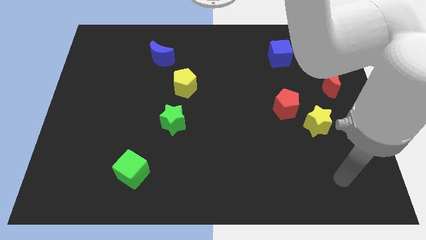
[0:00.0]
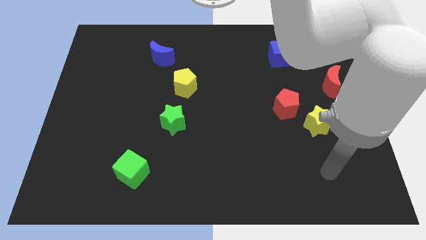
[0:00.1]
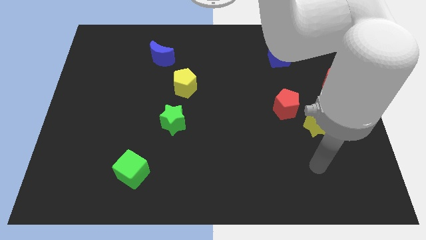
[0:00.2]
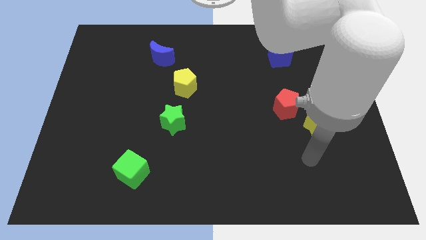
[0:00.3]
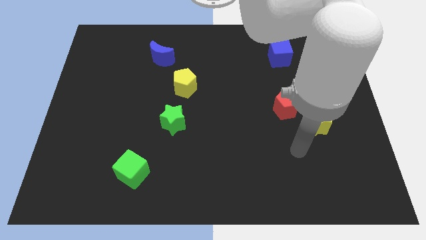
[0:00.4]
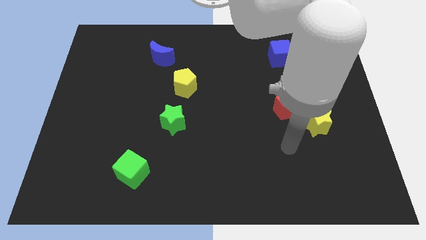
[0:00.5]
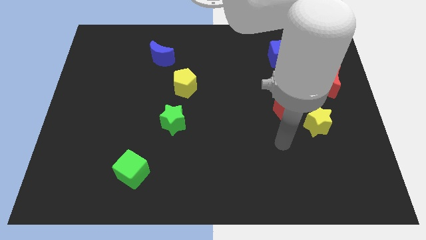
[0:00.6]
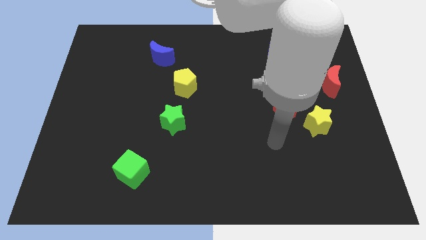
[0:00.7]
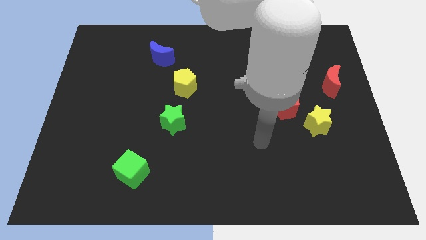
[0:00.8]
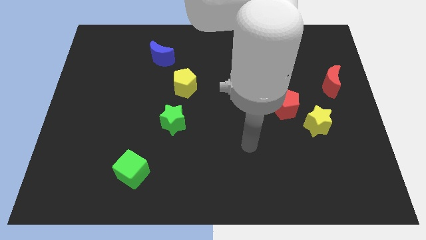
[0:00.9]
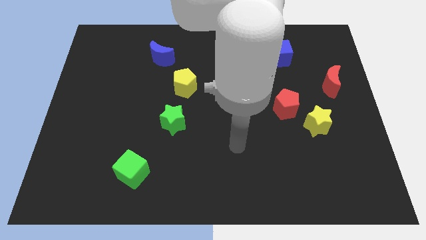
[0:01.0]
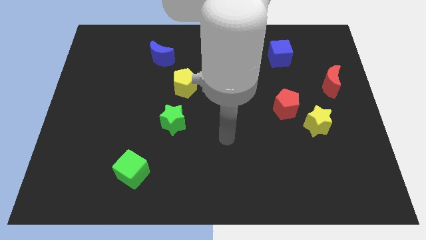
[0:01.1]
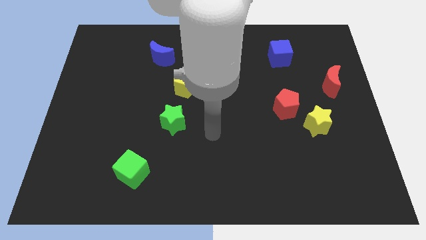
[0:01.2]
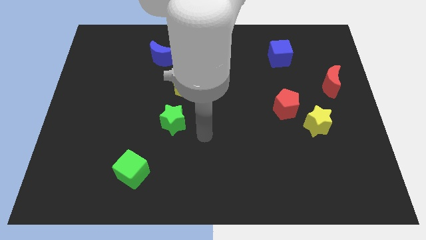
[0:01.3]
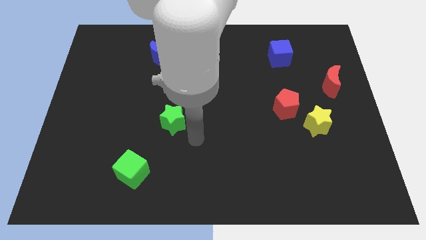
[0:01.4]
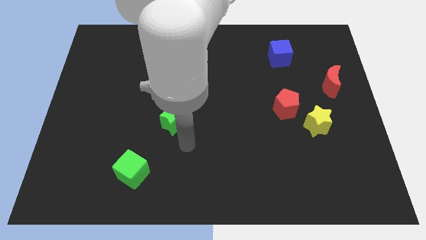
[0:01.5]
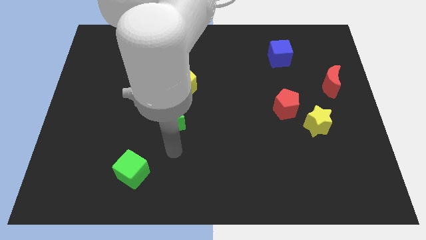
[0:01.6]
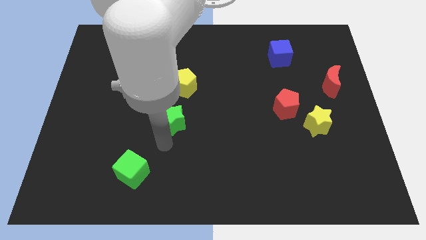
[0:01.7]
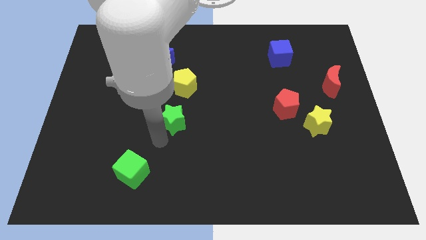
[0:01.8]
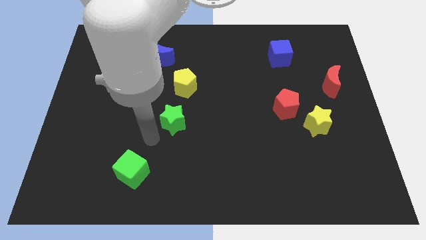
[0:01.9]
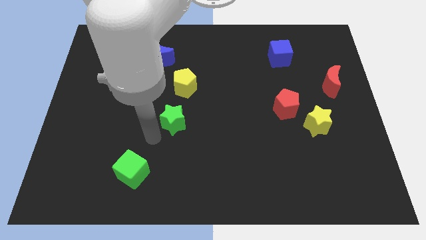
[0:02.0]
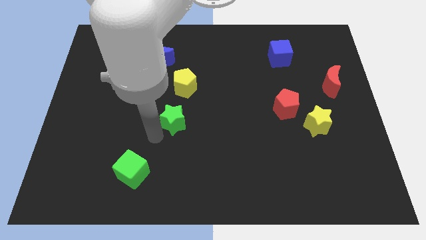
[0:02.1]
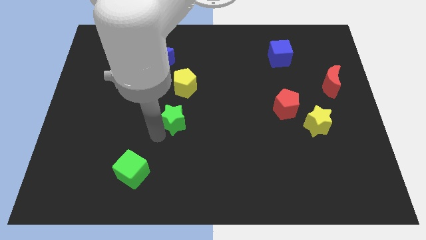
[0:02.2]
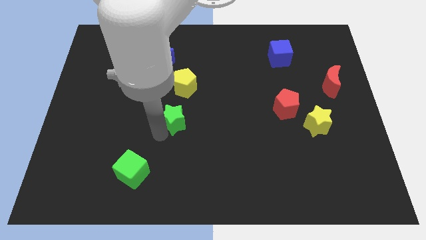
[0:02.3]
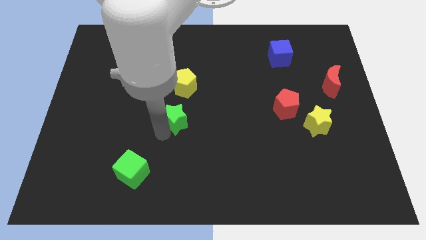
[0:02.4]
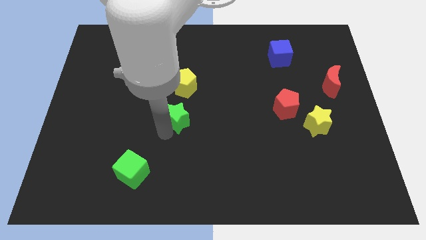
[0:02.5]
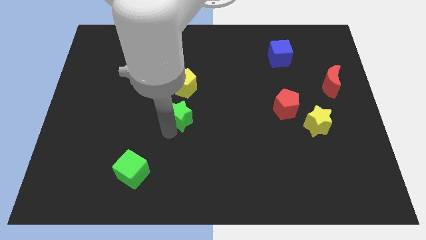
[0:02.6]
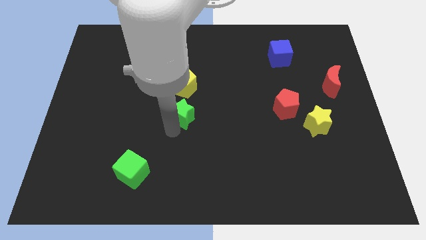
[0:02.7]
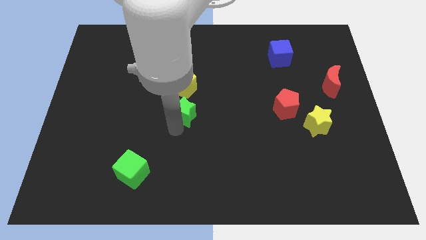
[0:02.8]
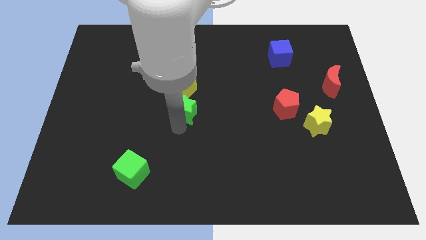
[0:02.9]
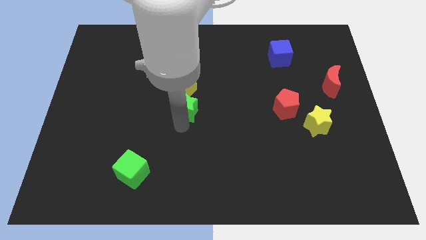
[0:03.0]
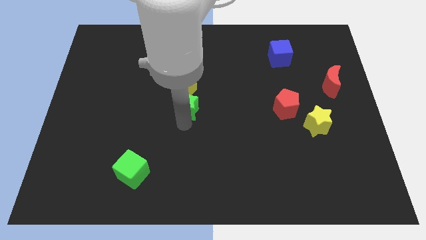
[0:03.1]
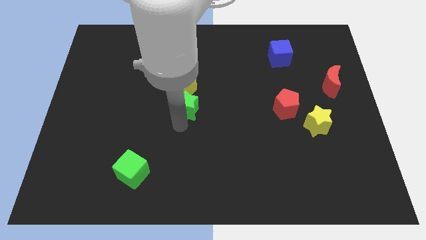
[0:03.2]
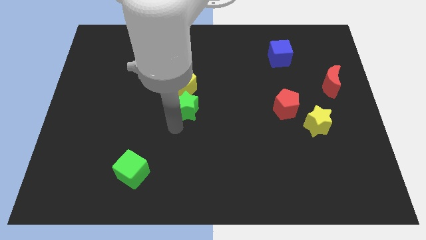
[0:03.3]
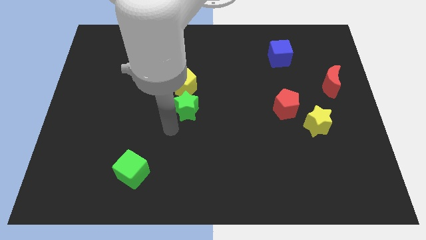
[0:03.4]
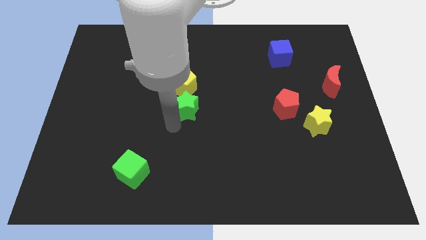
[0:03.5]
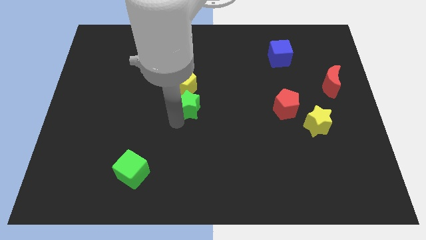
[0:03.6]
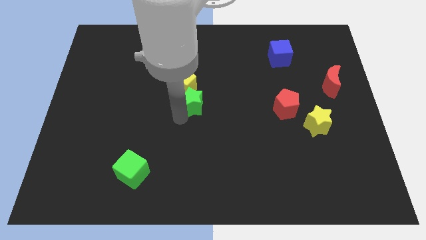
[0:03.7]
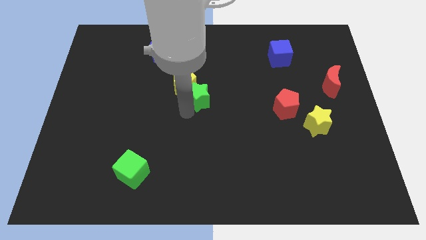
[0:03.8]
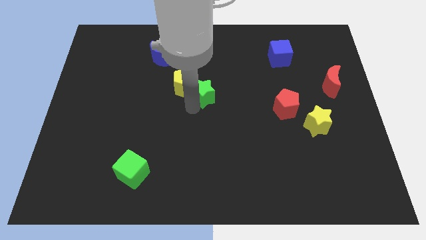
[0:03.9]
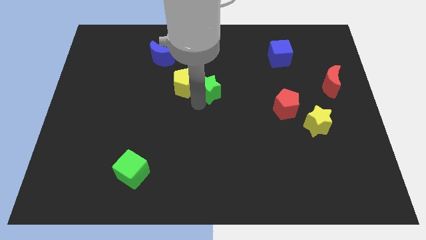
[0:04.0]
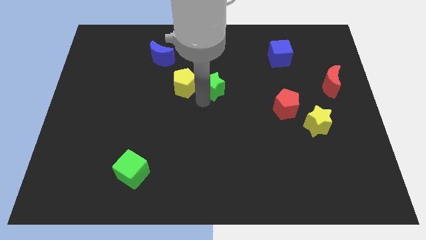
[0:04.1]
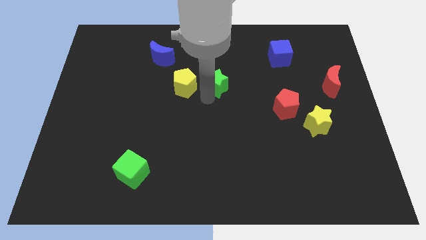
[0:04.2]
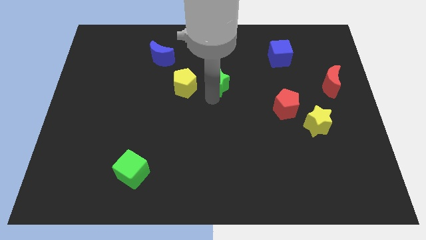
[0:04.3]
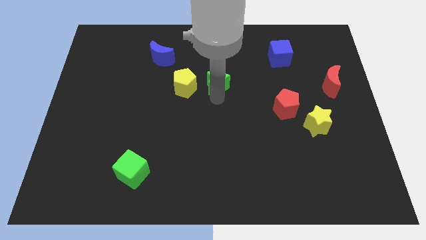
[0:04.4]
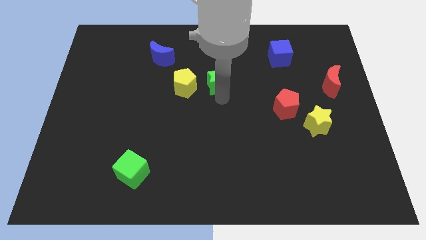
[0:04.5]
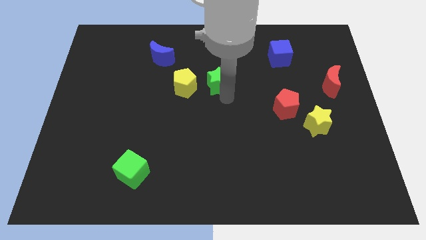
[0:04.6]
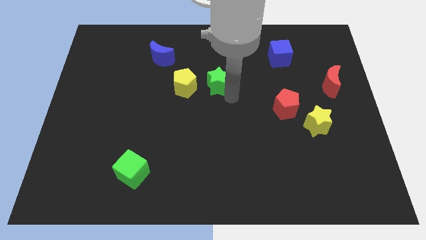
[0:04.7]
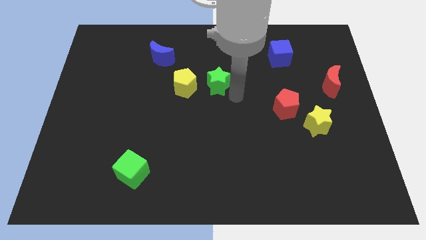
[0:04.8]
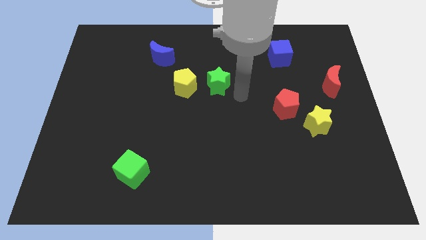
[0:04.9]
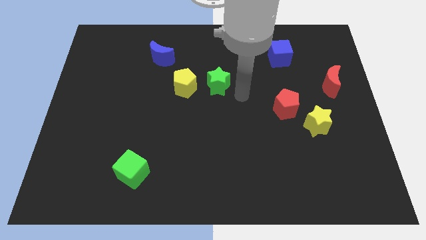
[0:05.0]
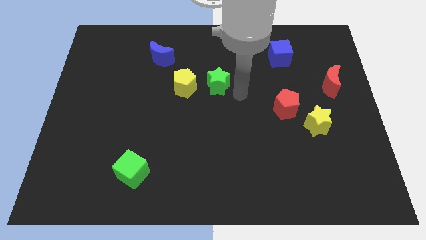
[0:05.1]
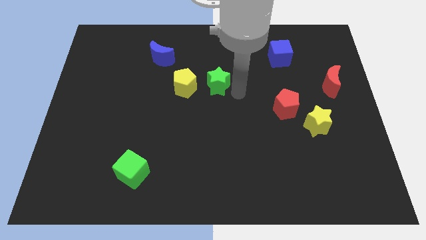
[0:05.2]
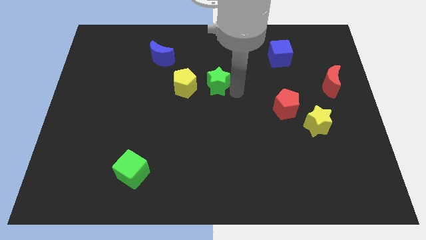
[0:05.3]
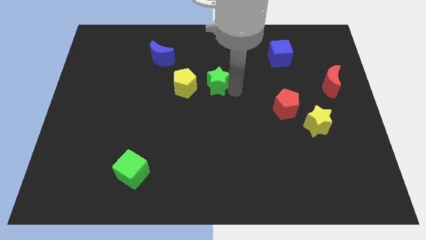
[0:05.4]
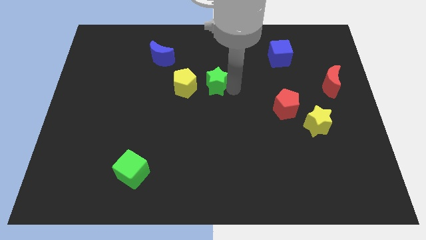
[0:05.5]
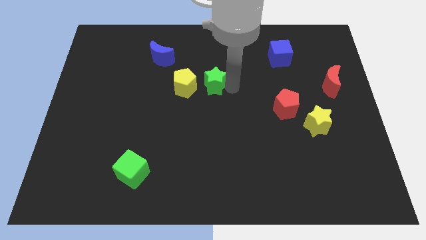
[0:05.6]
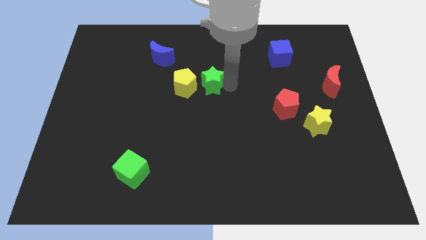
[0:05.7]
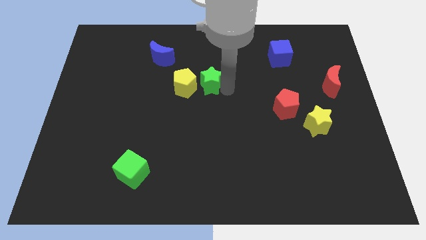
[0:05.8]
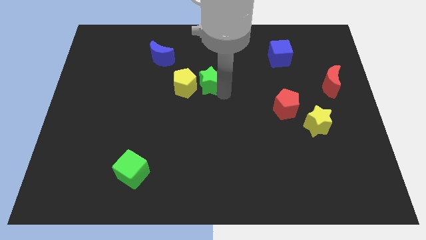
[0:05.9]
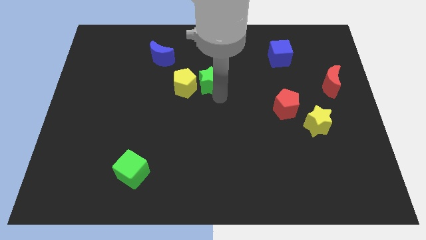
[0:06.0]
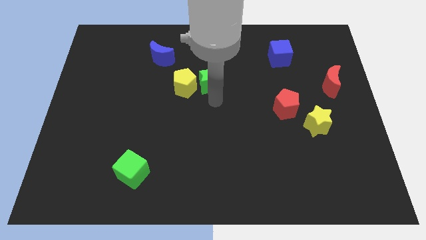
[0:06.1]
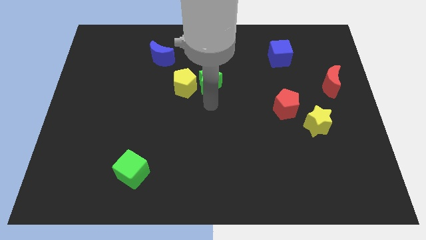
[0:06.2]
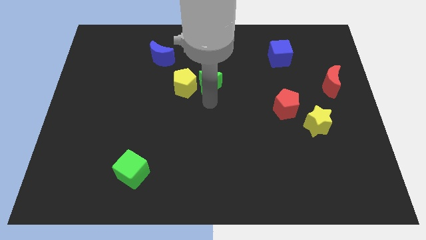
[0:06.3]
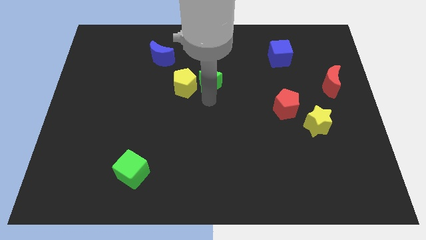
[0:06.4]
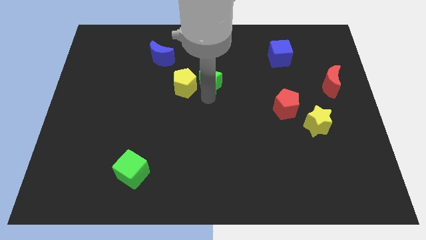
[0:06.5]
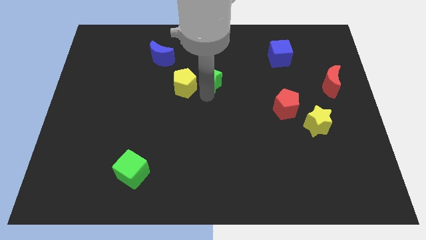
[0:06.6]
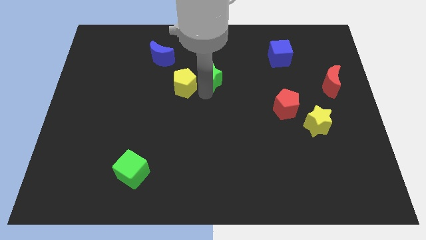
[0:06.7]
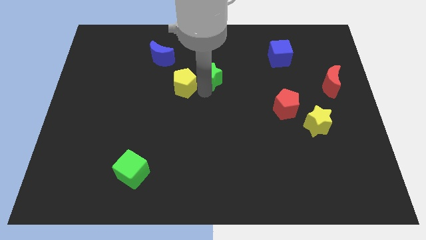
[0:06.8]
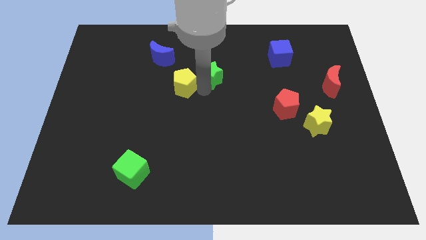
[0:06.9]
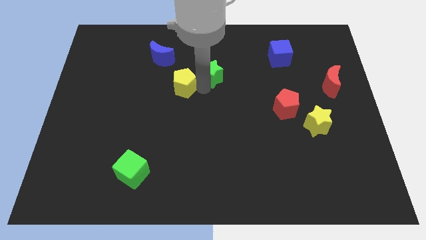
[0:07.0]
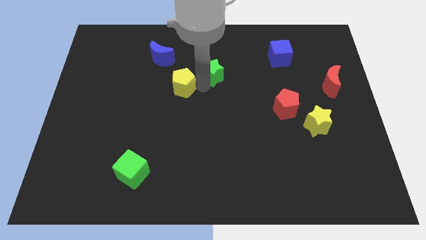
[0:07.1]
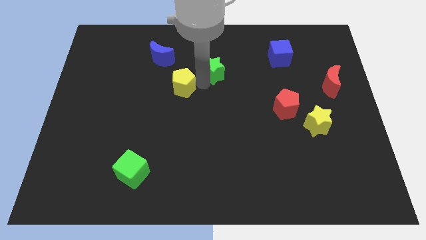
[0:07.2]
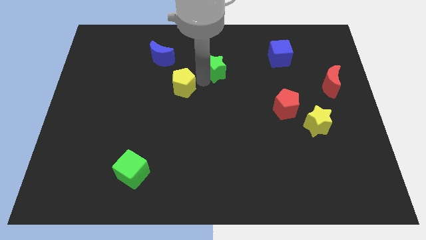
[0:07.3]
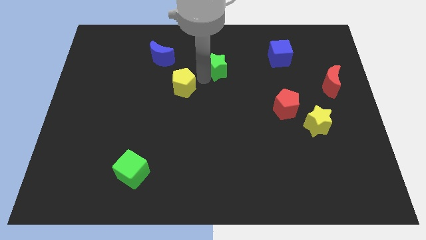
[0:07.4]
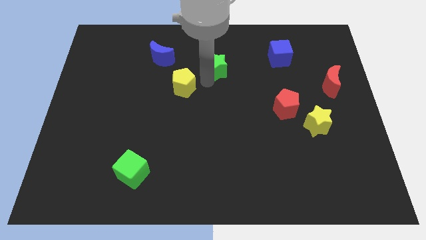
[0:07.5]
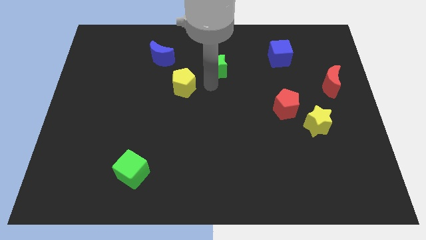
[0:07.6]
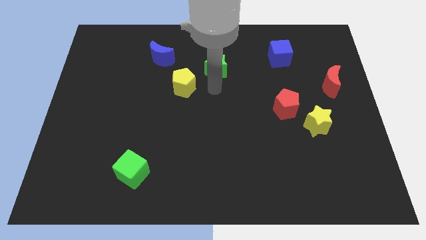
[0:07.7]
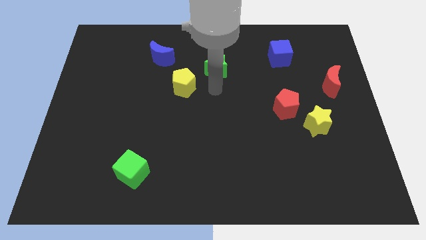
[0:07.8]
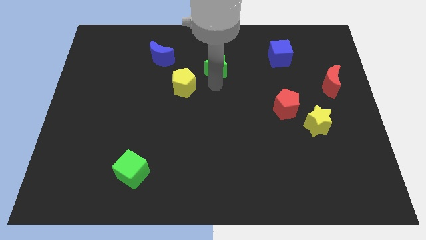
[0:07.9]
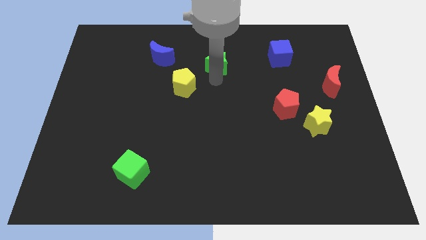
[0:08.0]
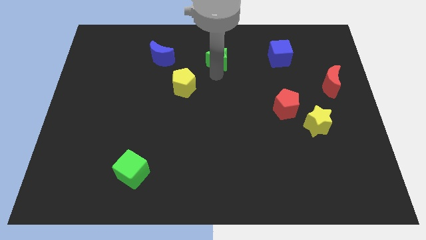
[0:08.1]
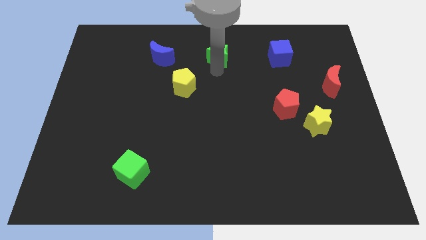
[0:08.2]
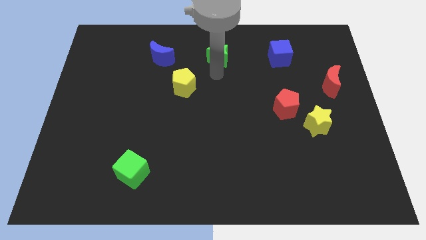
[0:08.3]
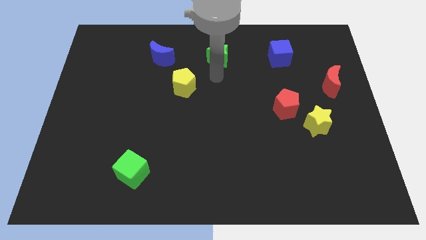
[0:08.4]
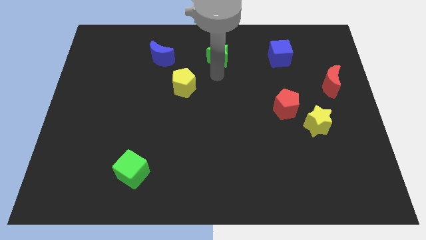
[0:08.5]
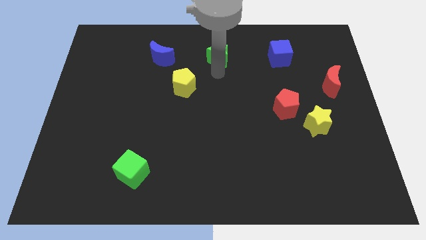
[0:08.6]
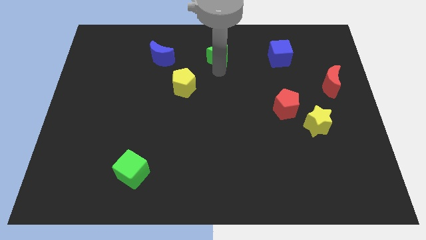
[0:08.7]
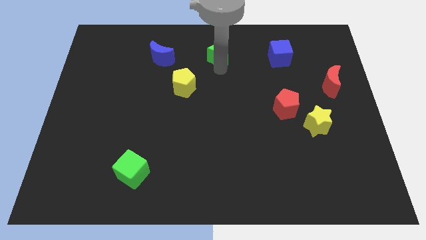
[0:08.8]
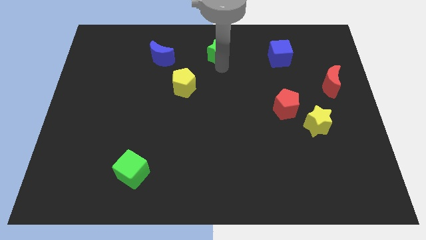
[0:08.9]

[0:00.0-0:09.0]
put the green star to the top
